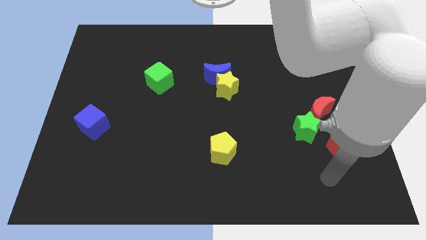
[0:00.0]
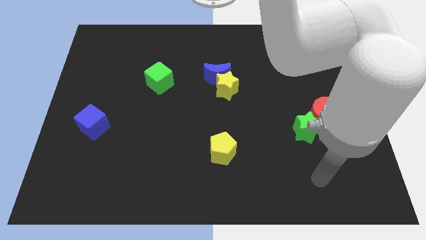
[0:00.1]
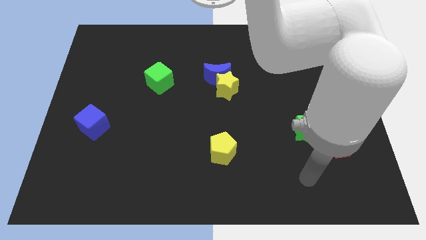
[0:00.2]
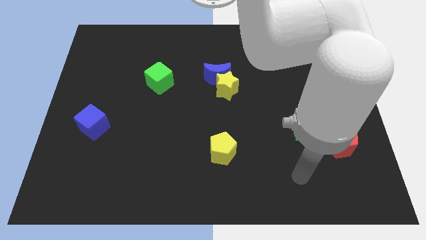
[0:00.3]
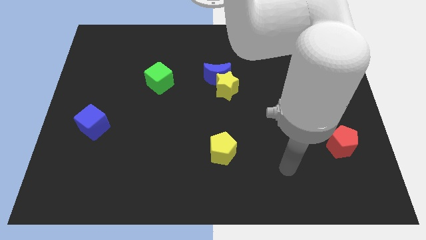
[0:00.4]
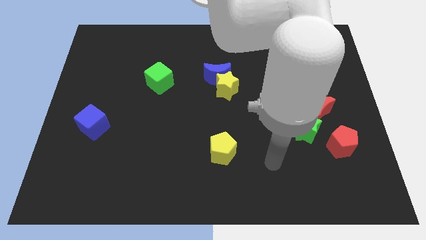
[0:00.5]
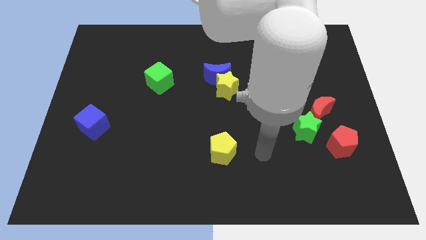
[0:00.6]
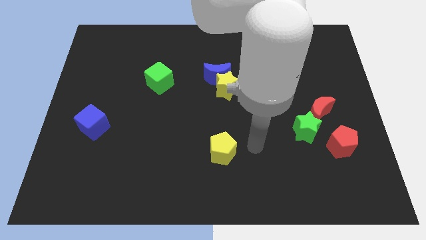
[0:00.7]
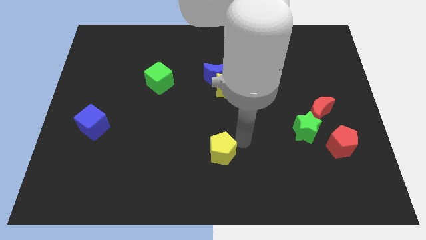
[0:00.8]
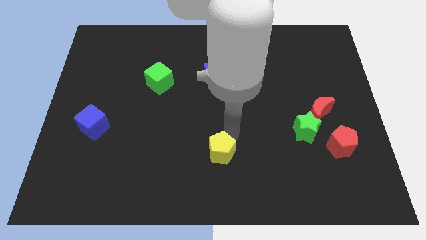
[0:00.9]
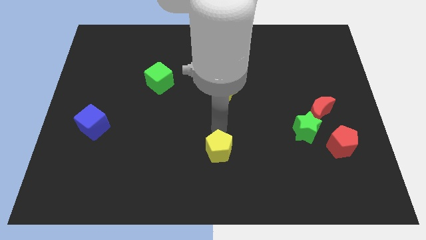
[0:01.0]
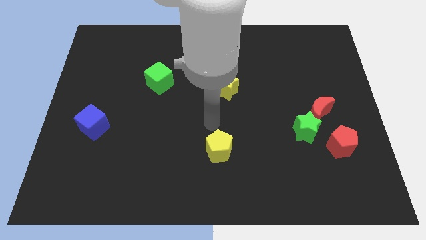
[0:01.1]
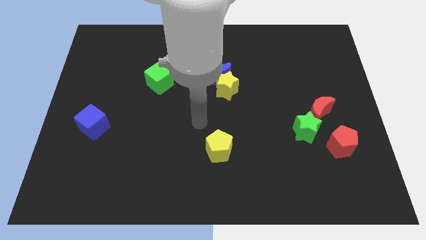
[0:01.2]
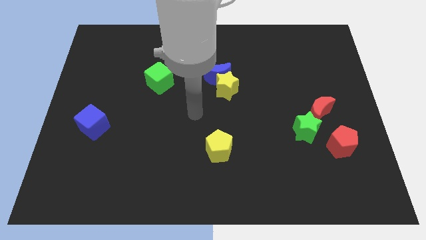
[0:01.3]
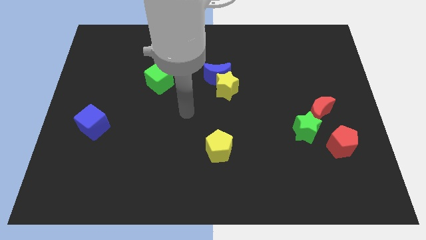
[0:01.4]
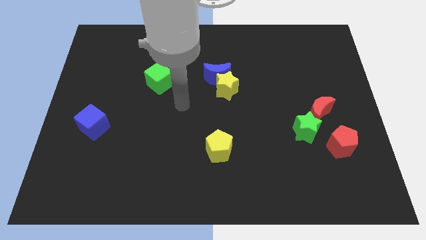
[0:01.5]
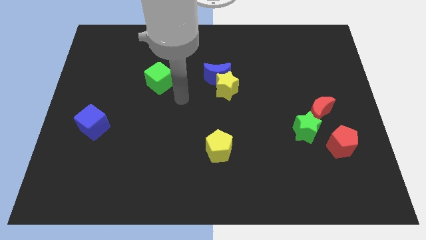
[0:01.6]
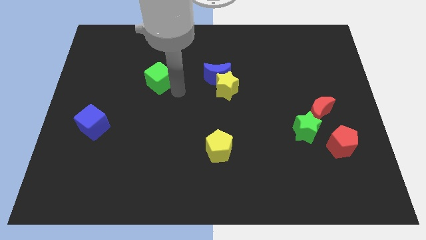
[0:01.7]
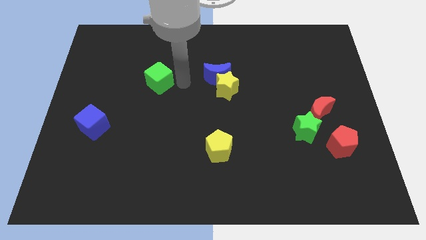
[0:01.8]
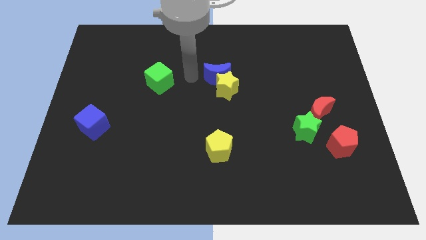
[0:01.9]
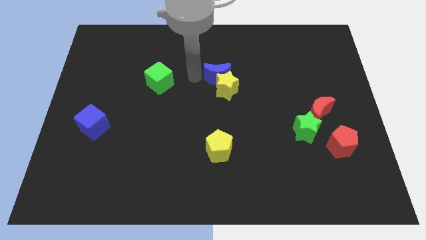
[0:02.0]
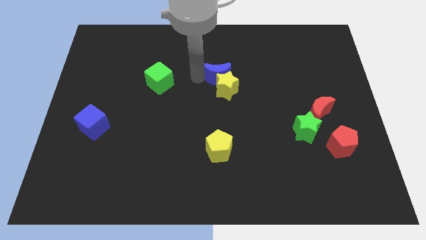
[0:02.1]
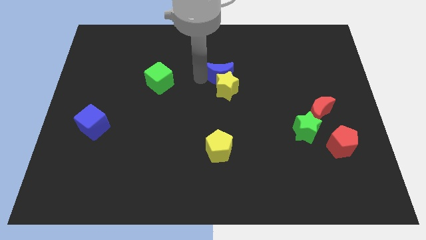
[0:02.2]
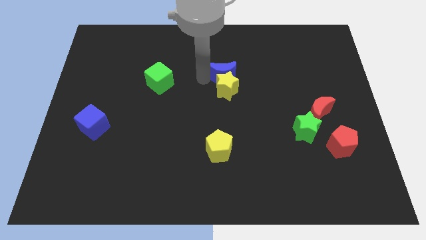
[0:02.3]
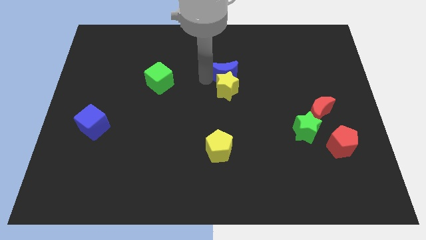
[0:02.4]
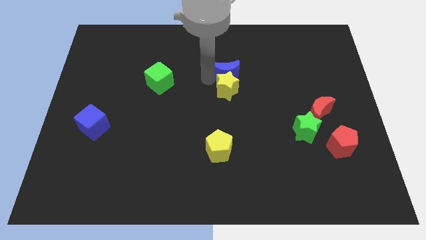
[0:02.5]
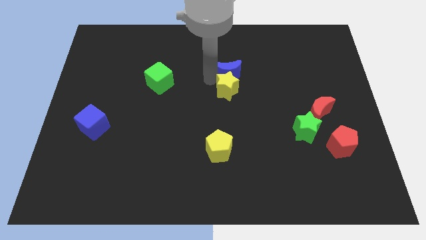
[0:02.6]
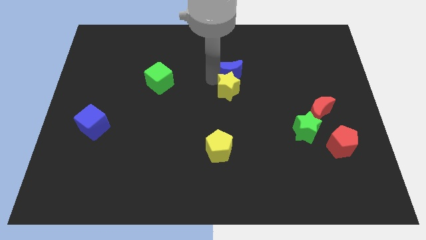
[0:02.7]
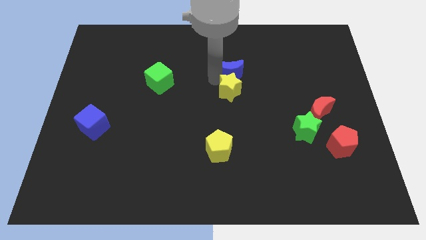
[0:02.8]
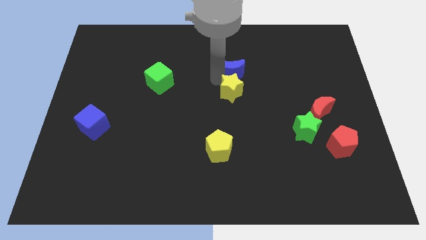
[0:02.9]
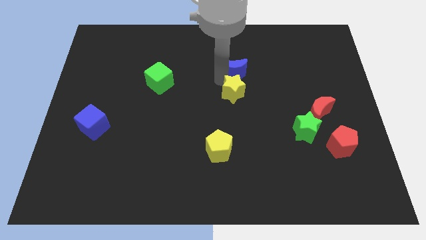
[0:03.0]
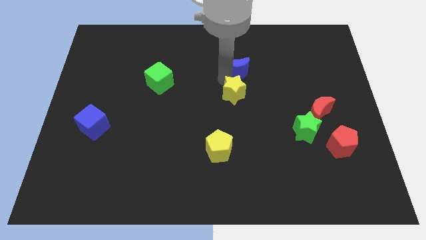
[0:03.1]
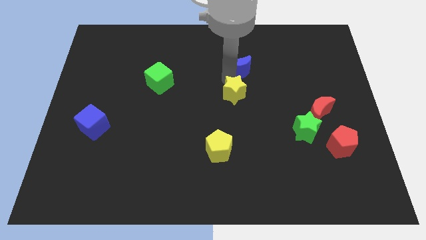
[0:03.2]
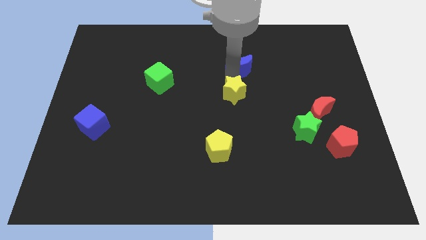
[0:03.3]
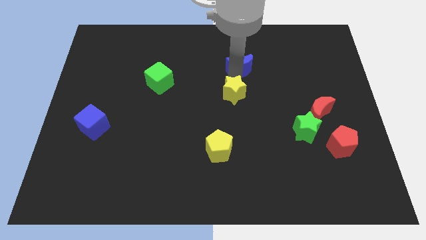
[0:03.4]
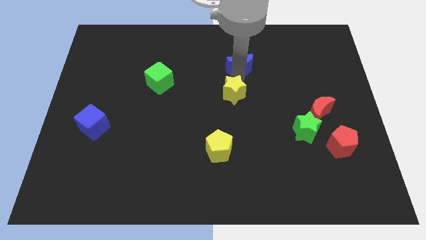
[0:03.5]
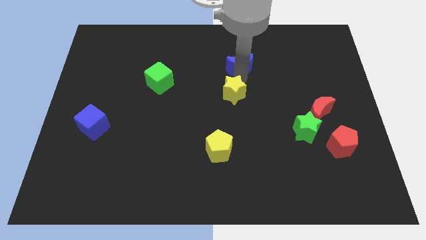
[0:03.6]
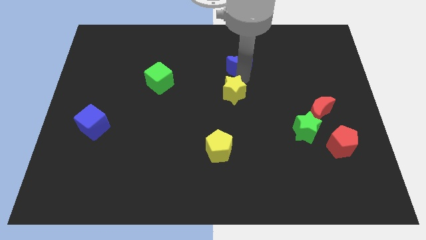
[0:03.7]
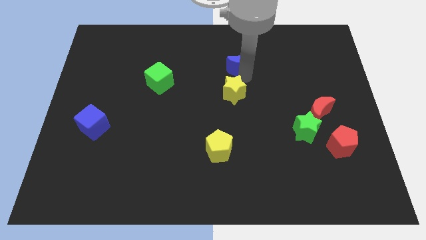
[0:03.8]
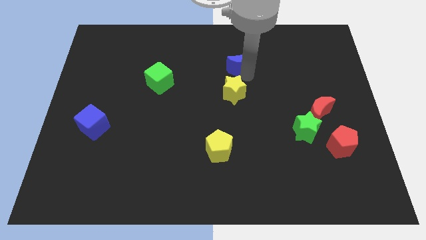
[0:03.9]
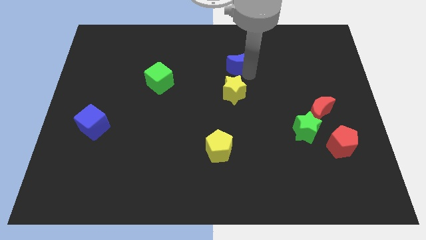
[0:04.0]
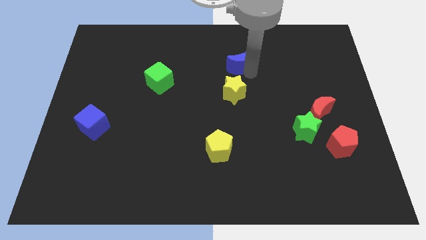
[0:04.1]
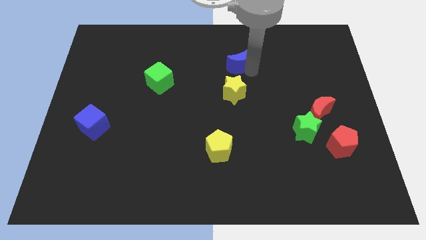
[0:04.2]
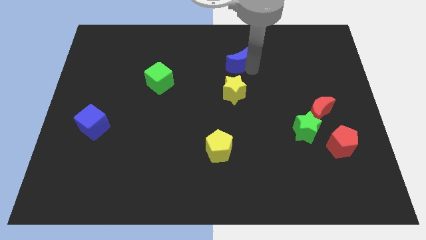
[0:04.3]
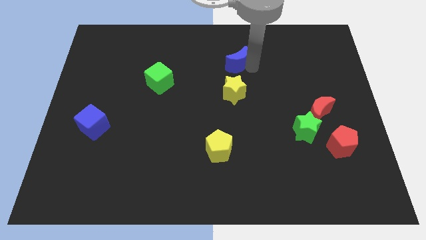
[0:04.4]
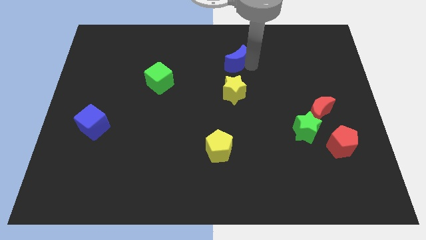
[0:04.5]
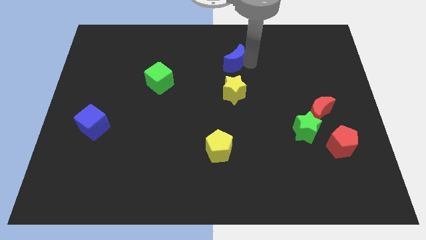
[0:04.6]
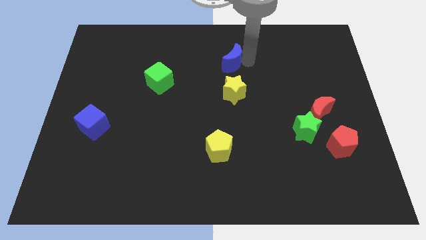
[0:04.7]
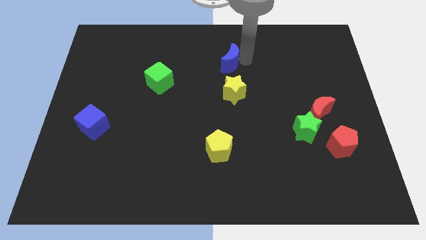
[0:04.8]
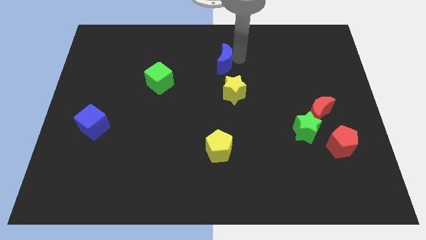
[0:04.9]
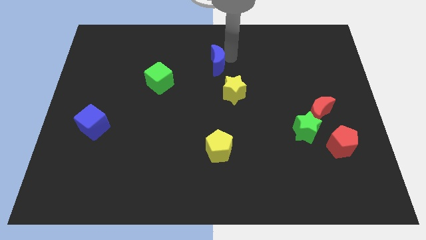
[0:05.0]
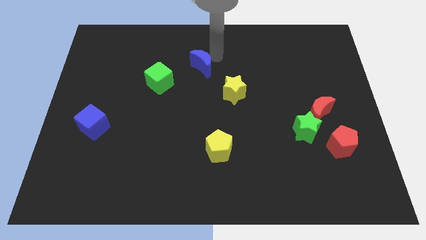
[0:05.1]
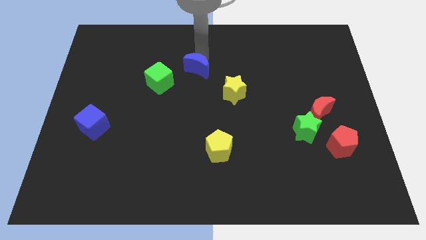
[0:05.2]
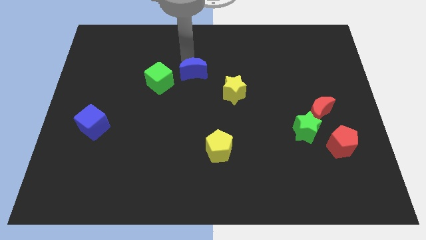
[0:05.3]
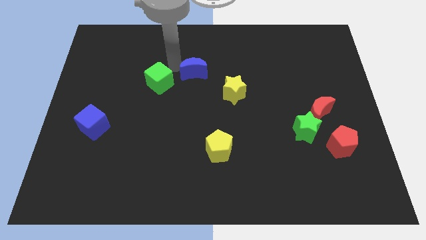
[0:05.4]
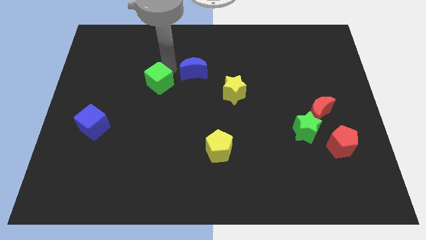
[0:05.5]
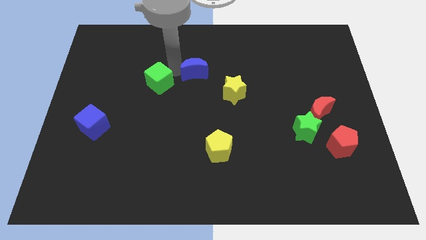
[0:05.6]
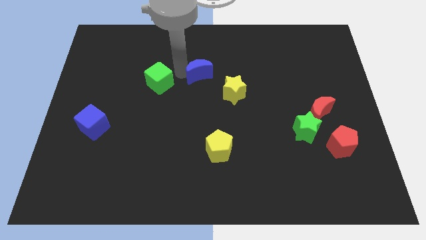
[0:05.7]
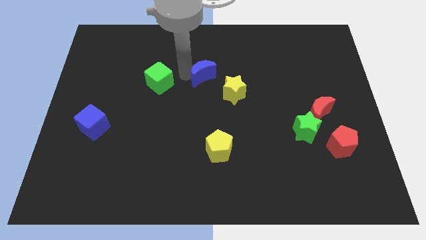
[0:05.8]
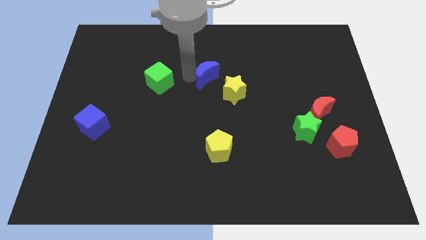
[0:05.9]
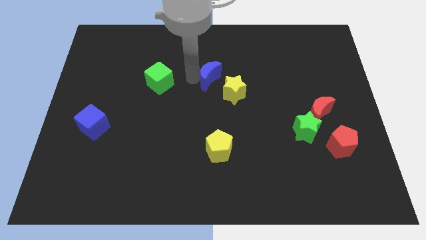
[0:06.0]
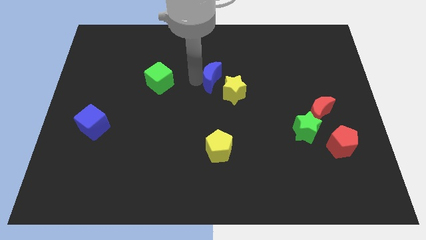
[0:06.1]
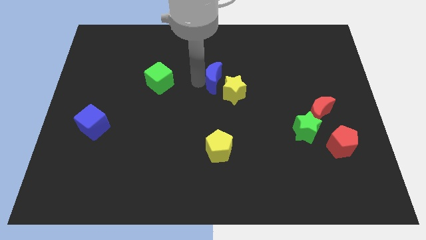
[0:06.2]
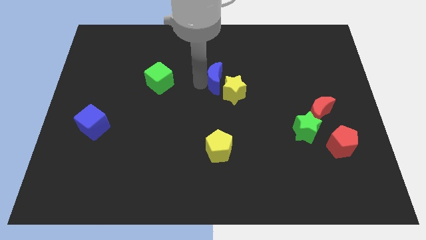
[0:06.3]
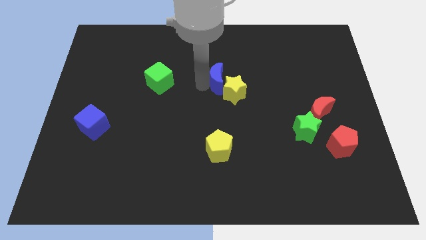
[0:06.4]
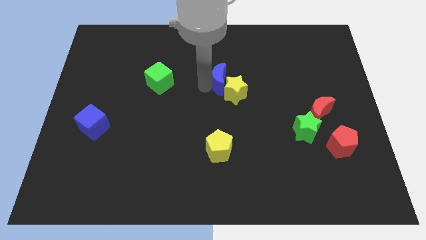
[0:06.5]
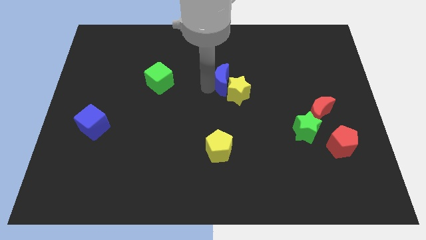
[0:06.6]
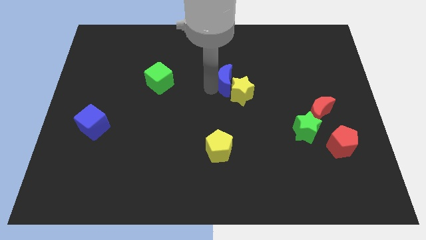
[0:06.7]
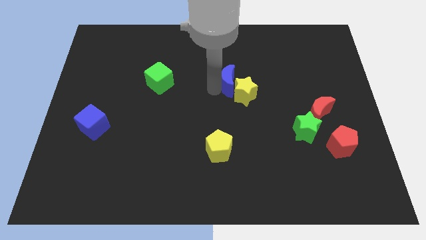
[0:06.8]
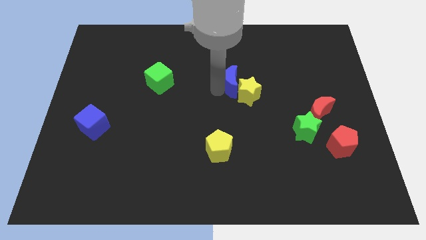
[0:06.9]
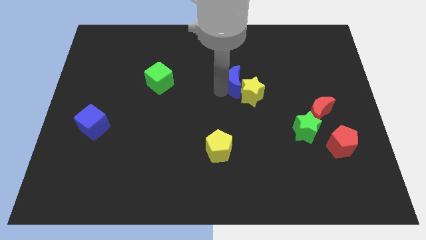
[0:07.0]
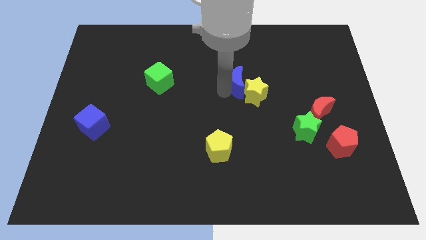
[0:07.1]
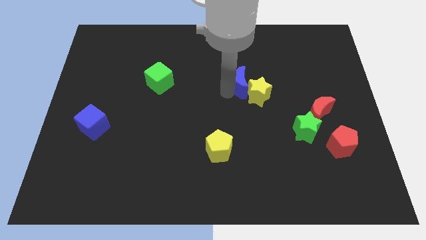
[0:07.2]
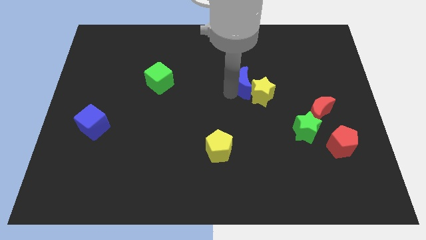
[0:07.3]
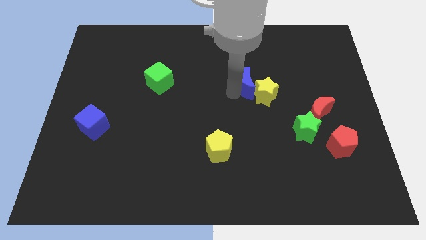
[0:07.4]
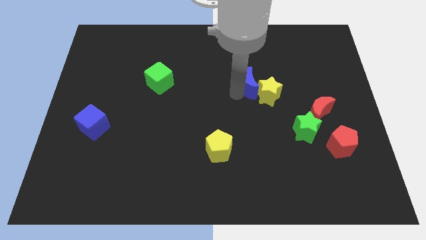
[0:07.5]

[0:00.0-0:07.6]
move the blue moon to the right a bit

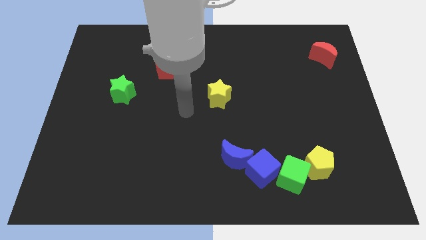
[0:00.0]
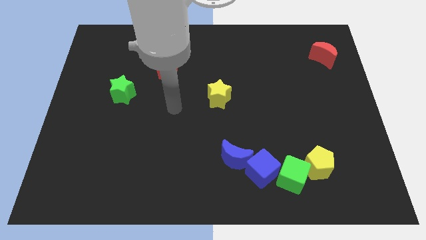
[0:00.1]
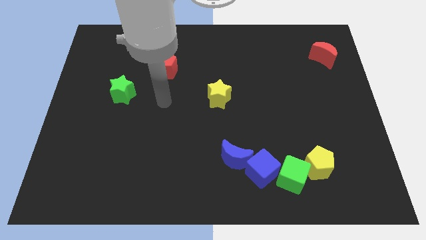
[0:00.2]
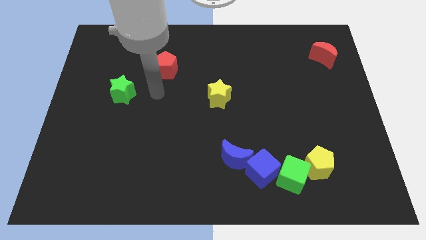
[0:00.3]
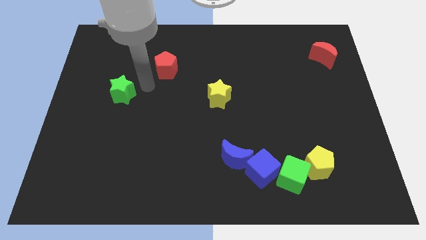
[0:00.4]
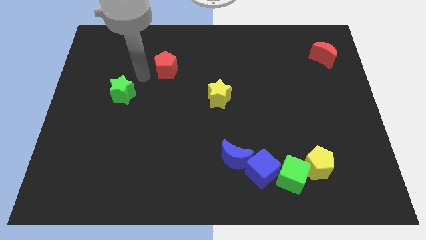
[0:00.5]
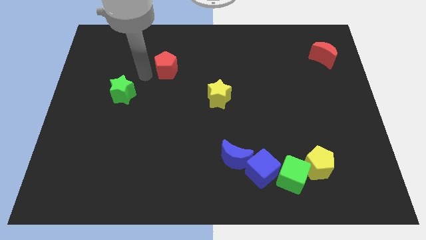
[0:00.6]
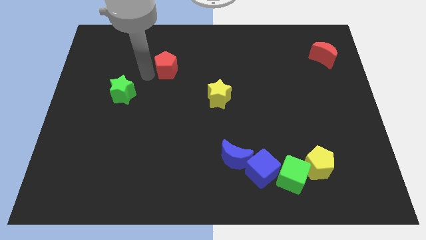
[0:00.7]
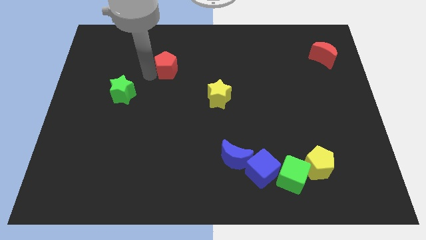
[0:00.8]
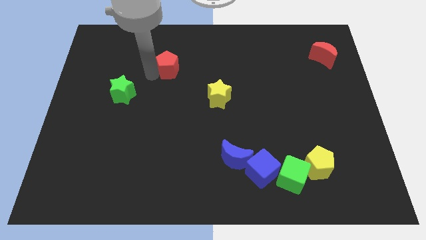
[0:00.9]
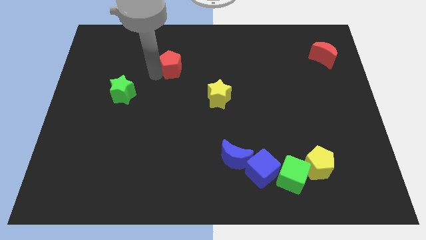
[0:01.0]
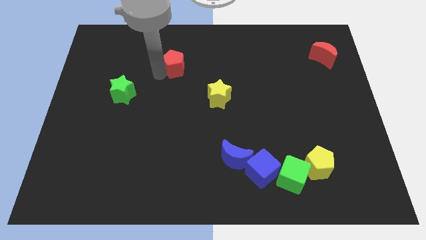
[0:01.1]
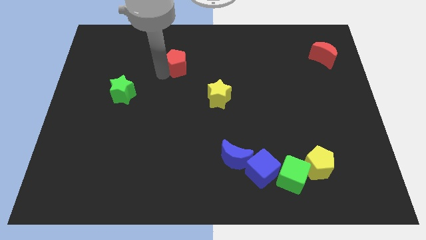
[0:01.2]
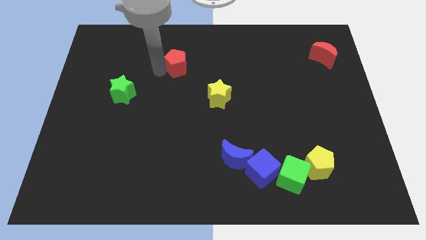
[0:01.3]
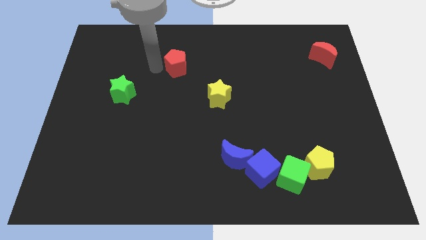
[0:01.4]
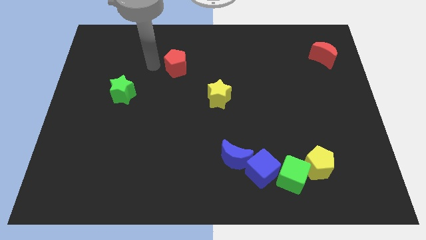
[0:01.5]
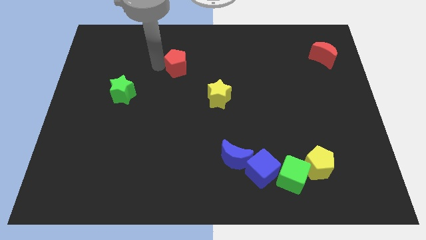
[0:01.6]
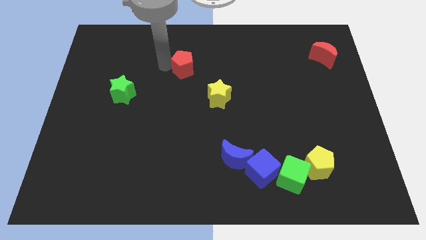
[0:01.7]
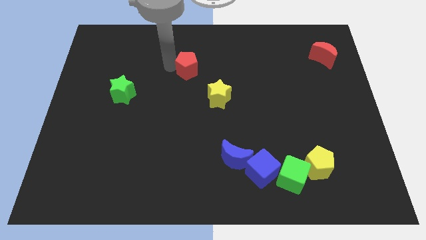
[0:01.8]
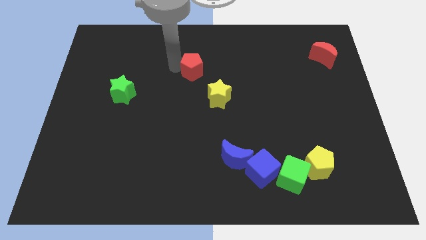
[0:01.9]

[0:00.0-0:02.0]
move the red pentagon a little bit right
